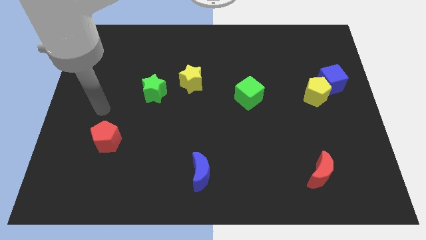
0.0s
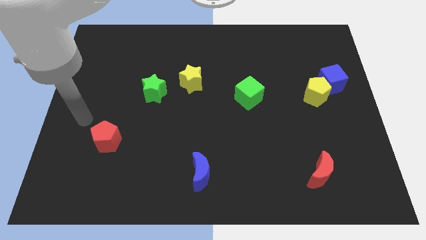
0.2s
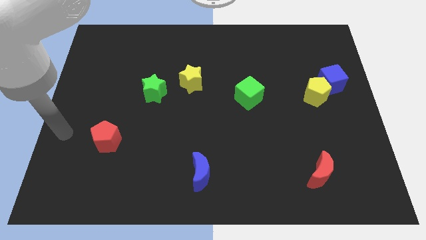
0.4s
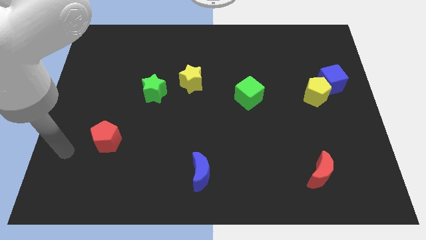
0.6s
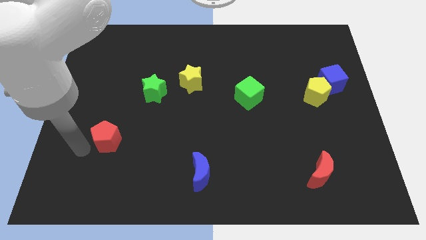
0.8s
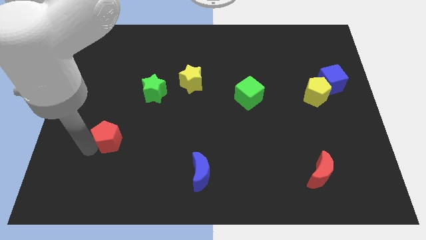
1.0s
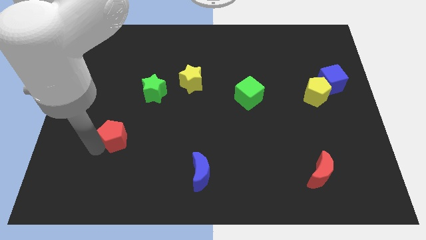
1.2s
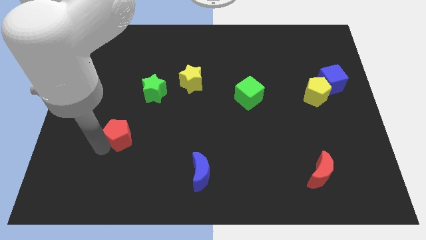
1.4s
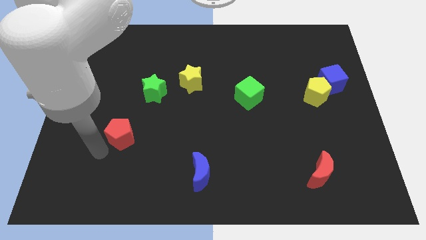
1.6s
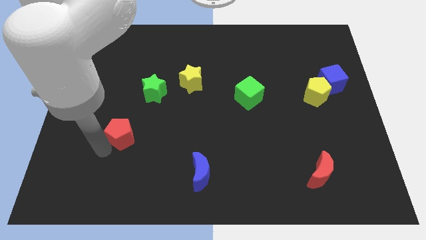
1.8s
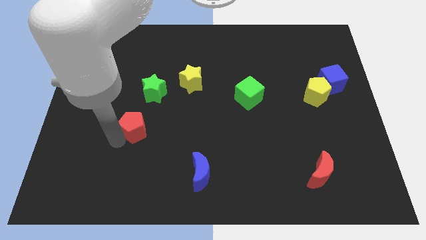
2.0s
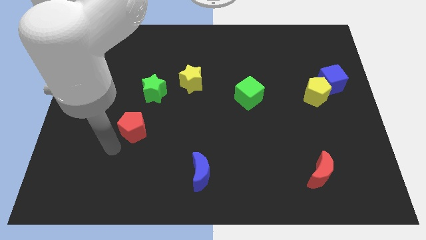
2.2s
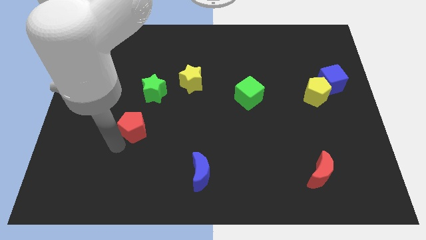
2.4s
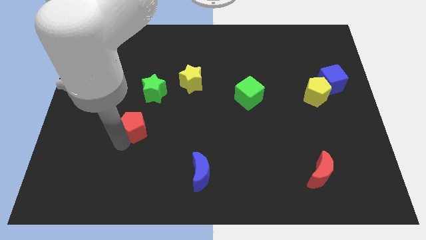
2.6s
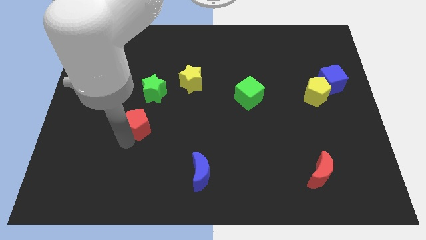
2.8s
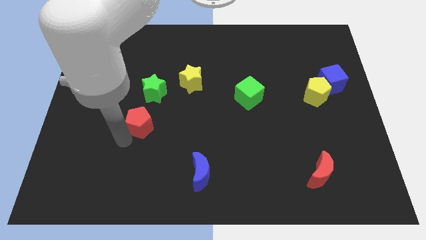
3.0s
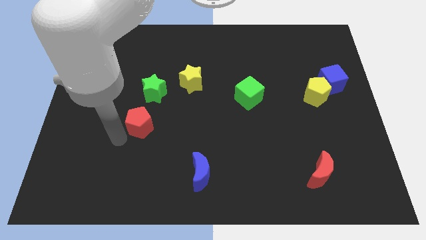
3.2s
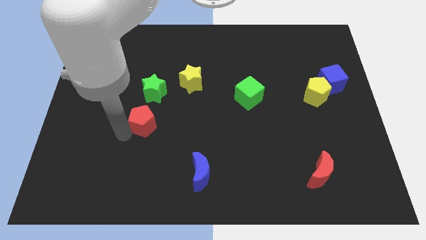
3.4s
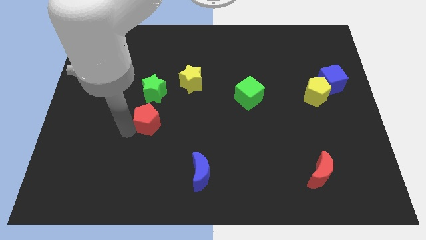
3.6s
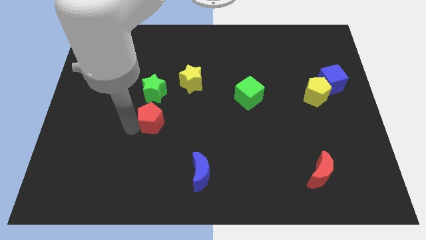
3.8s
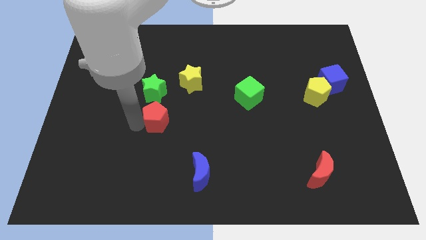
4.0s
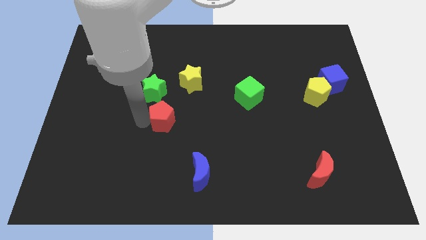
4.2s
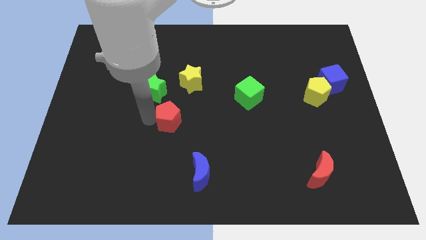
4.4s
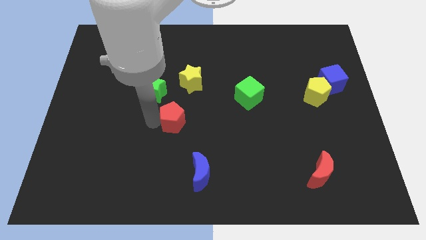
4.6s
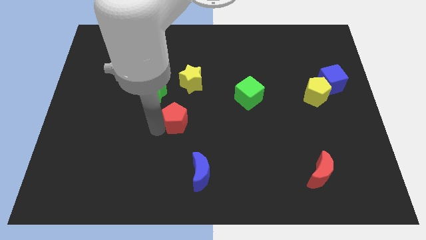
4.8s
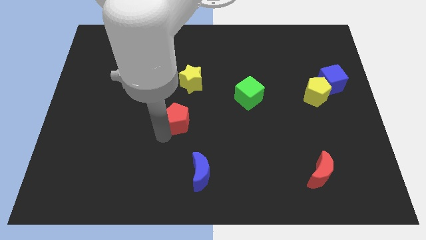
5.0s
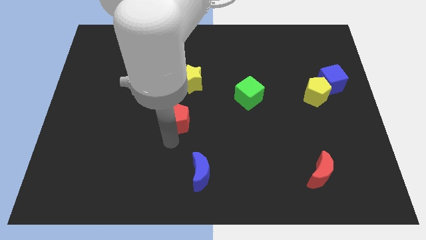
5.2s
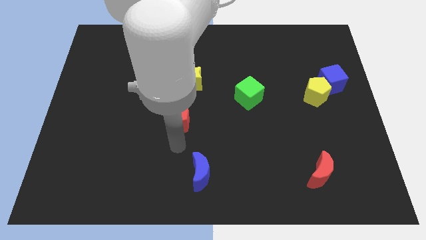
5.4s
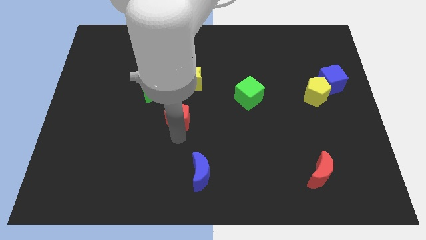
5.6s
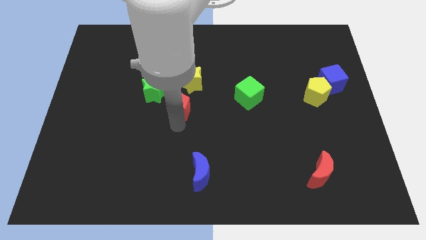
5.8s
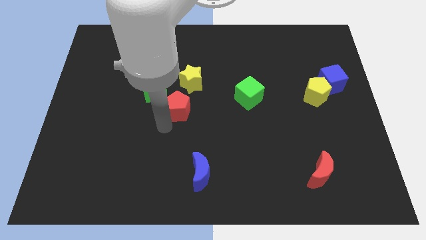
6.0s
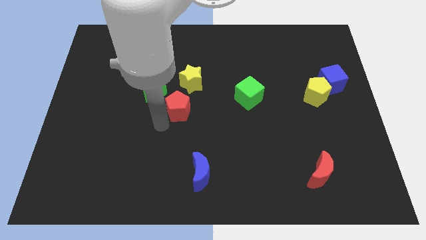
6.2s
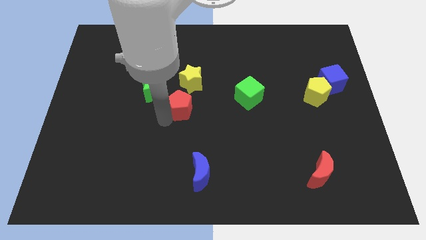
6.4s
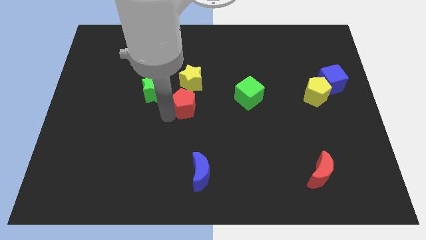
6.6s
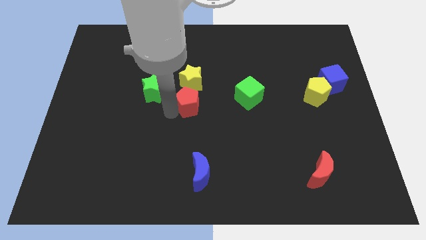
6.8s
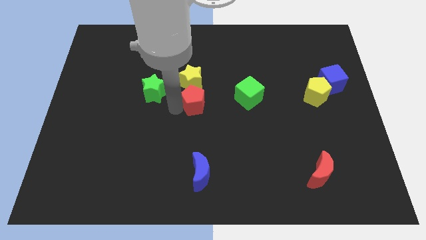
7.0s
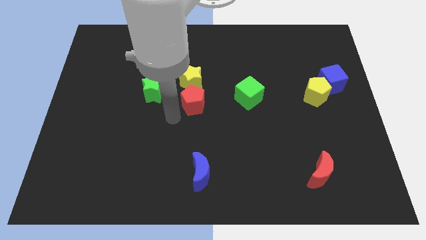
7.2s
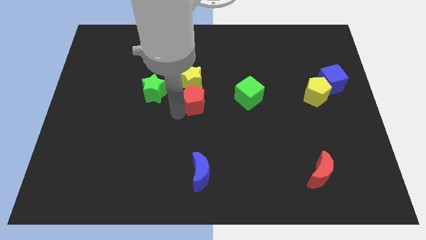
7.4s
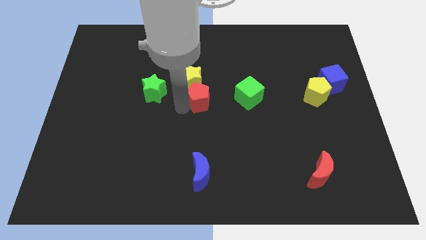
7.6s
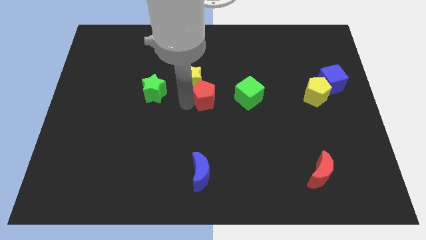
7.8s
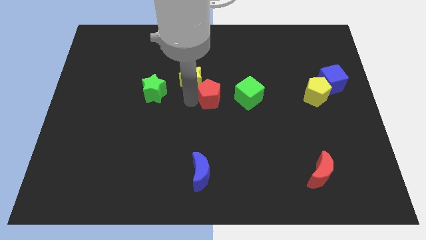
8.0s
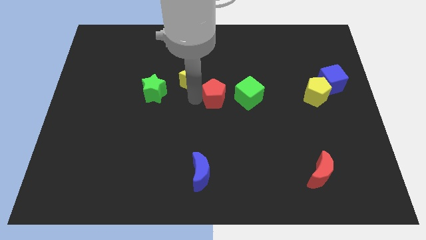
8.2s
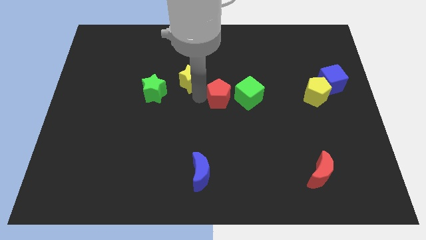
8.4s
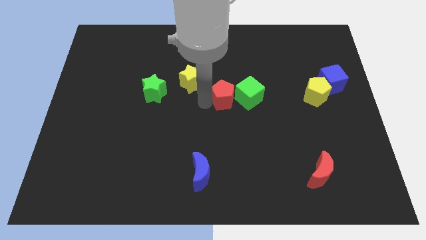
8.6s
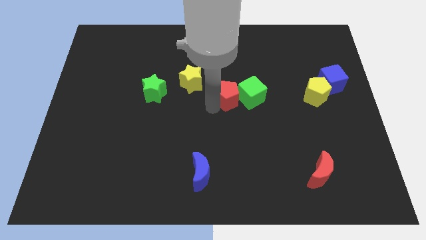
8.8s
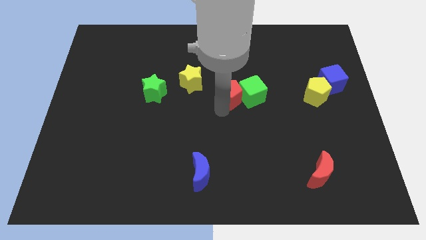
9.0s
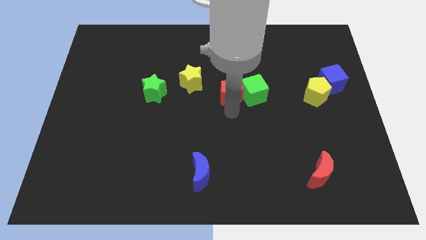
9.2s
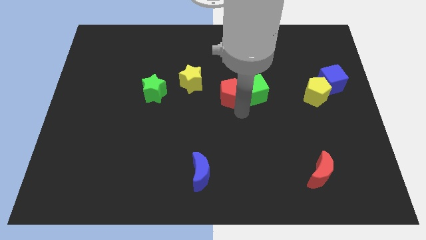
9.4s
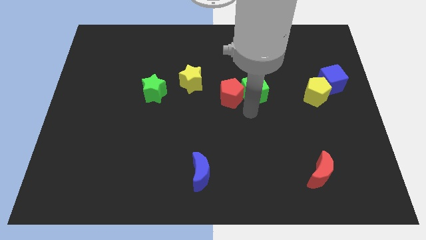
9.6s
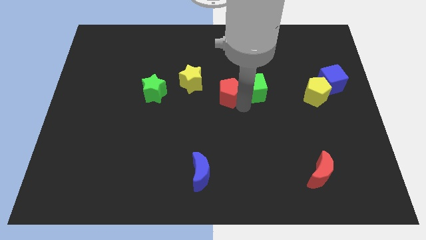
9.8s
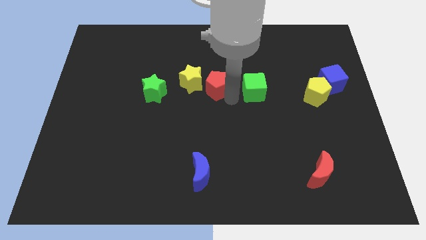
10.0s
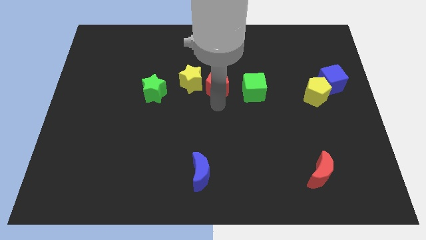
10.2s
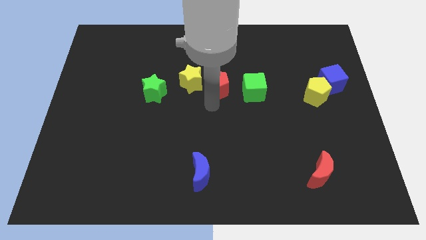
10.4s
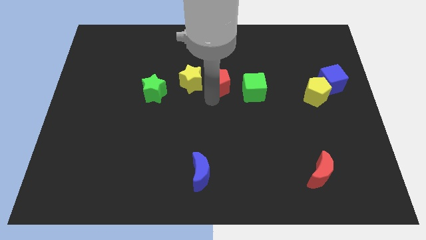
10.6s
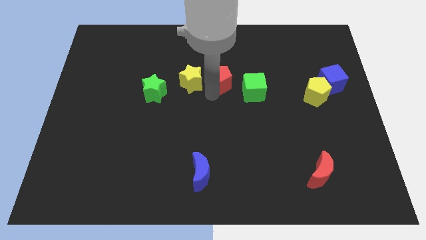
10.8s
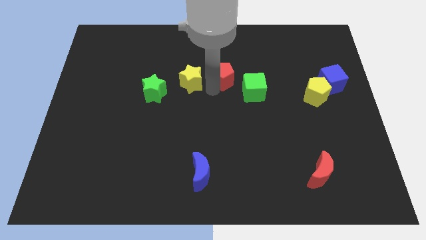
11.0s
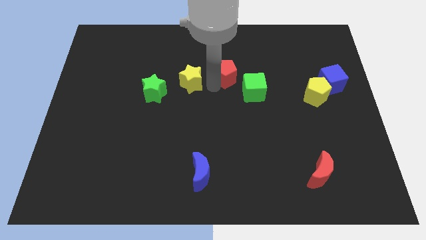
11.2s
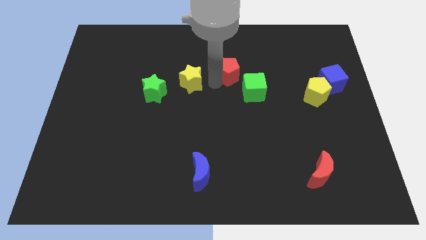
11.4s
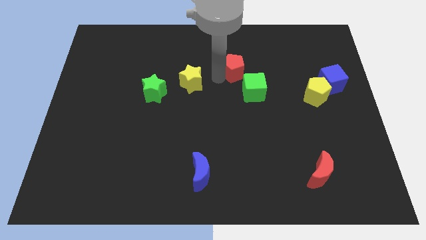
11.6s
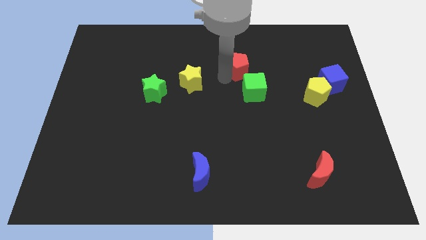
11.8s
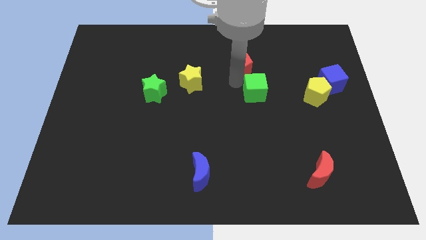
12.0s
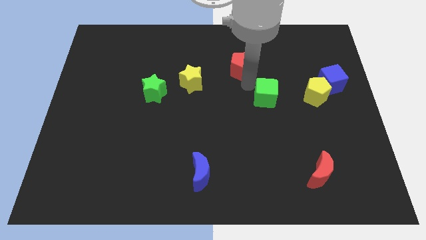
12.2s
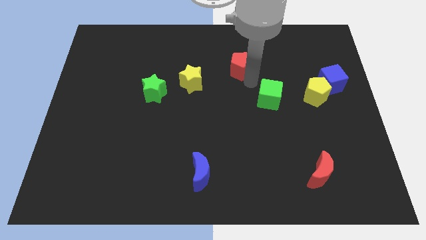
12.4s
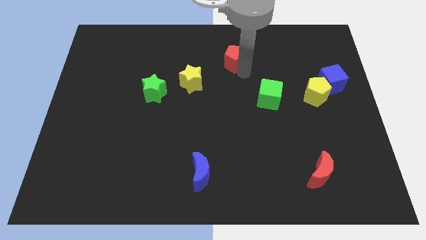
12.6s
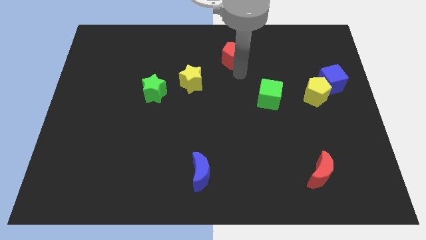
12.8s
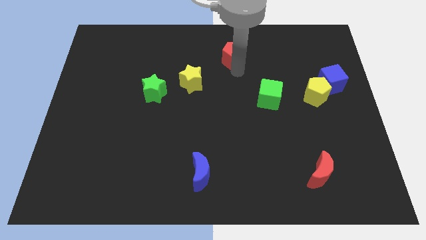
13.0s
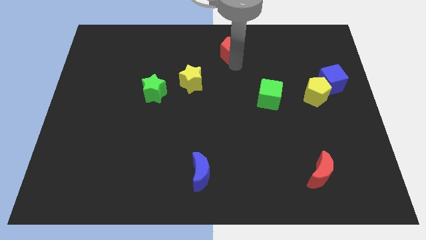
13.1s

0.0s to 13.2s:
push the red pentagon to the top

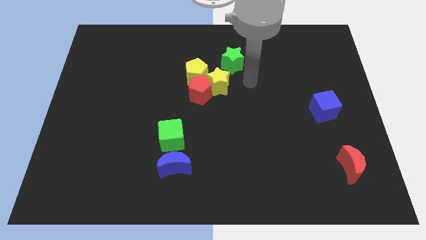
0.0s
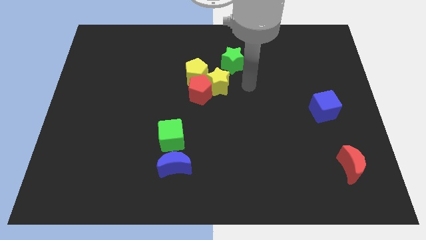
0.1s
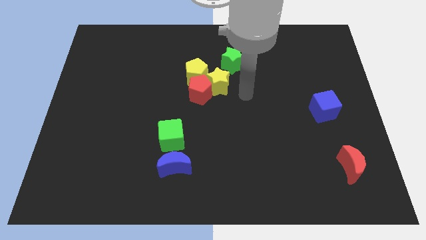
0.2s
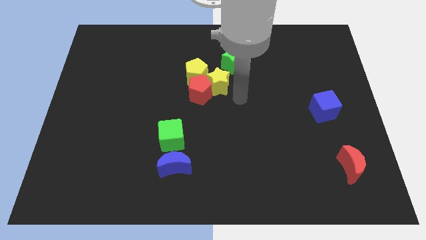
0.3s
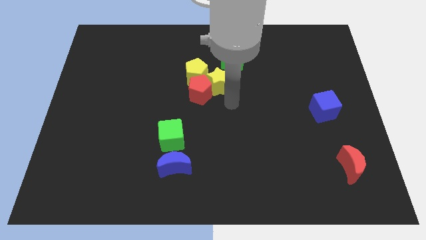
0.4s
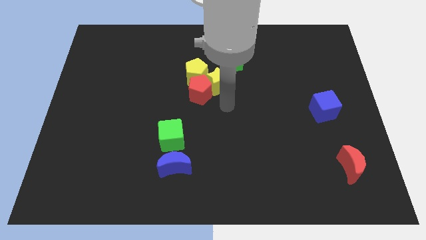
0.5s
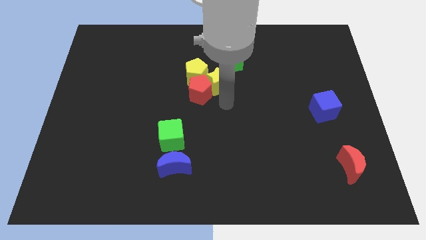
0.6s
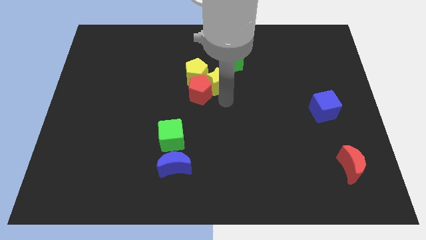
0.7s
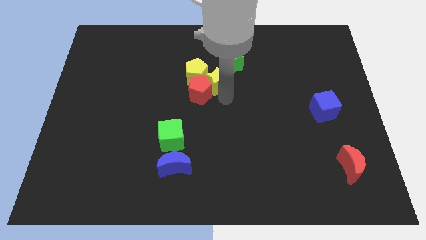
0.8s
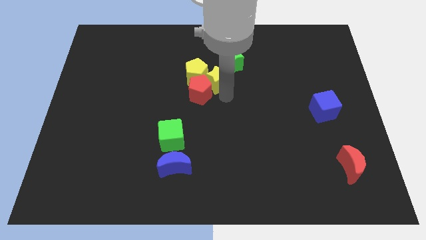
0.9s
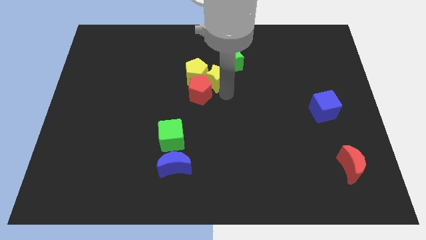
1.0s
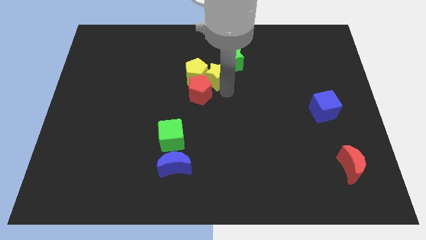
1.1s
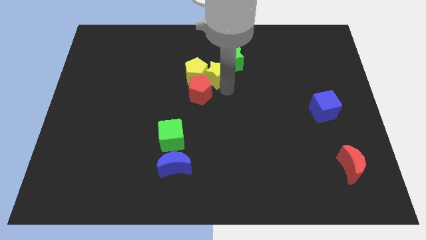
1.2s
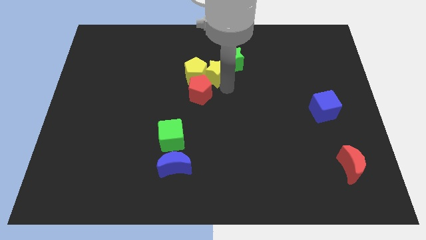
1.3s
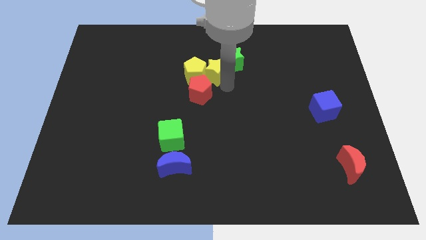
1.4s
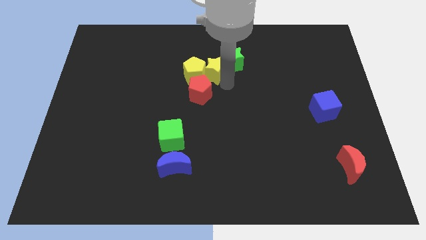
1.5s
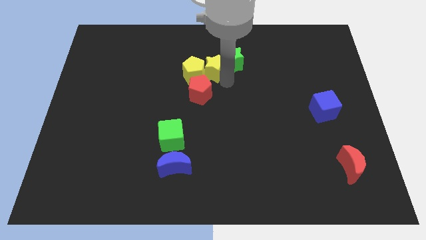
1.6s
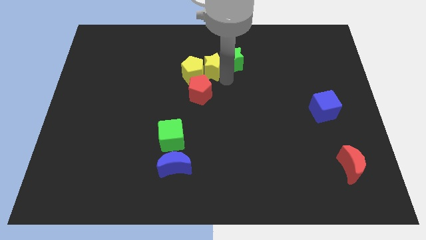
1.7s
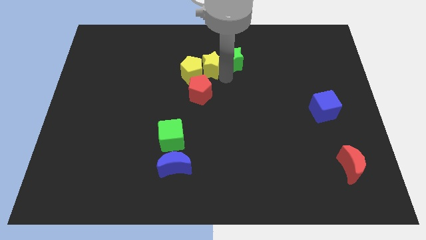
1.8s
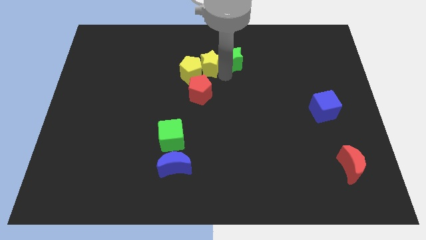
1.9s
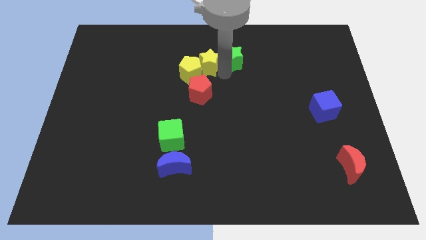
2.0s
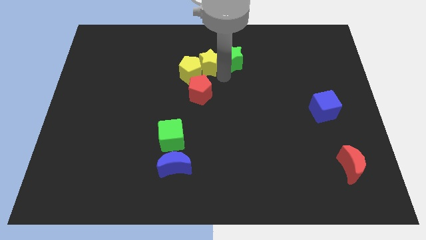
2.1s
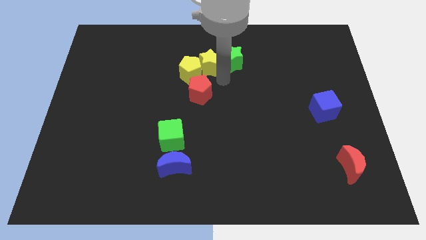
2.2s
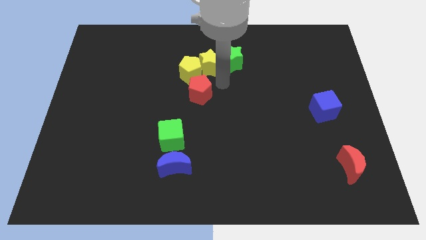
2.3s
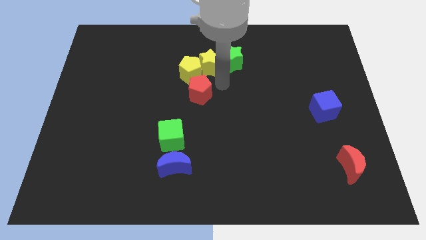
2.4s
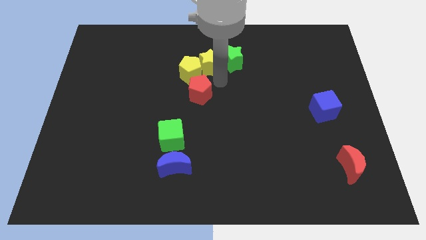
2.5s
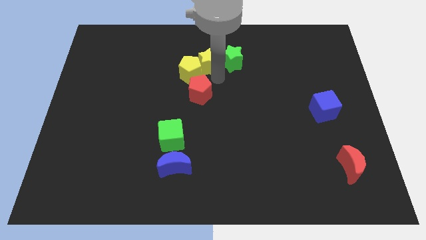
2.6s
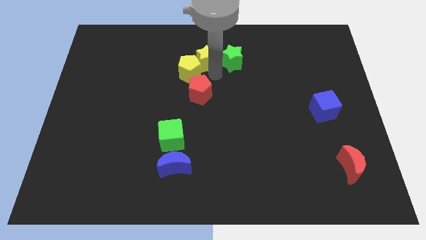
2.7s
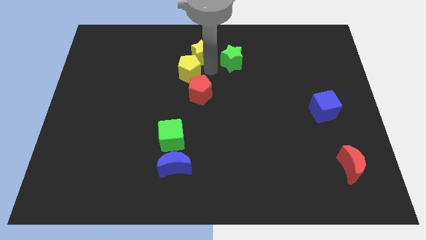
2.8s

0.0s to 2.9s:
put the yellow star to the top side
